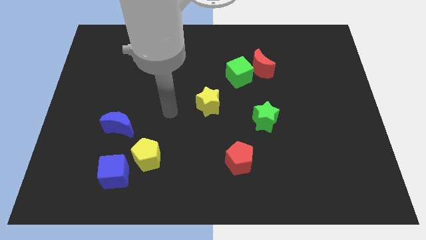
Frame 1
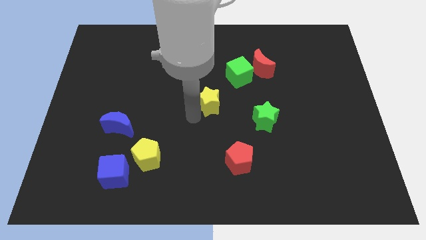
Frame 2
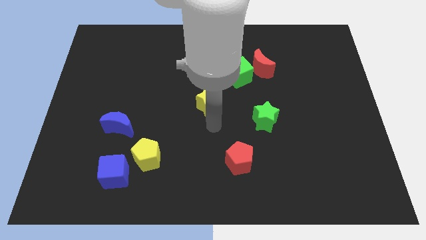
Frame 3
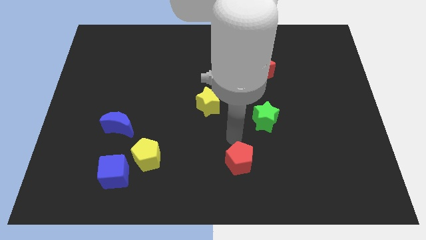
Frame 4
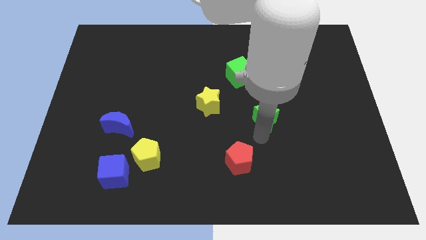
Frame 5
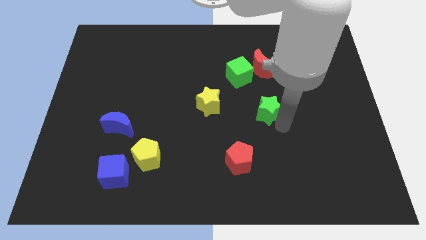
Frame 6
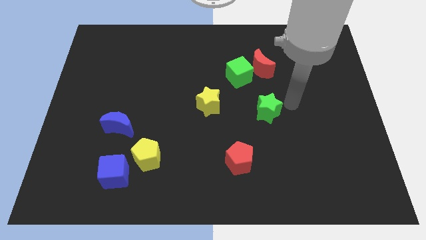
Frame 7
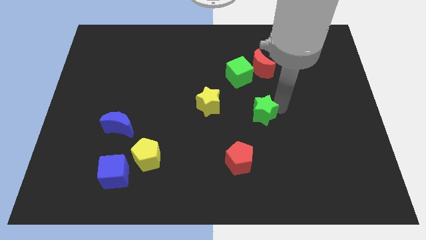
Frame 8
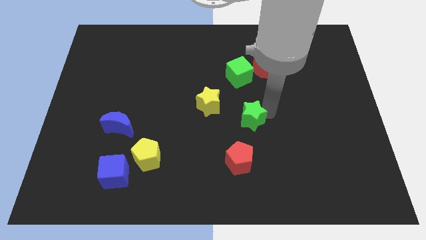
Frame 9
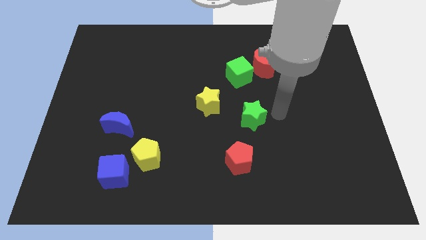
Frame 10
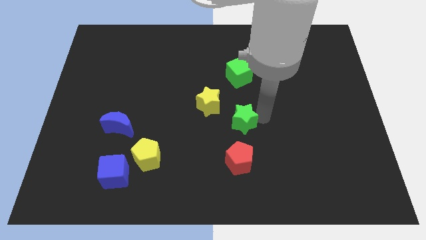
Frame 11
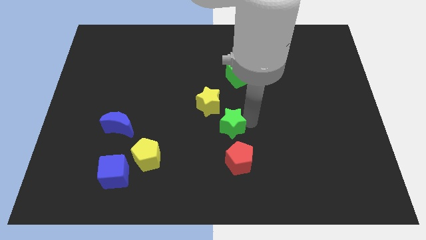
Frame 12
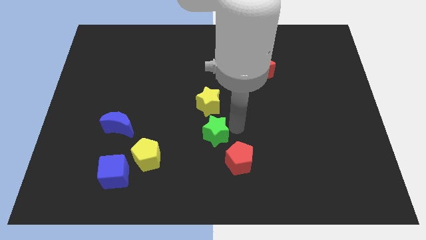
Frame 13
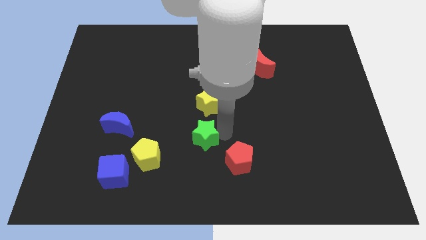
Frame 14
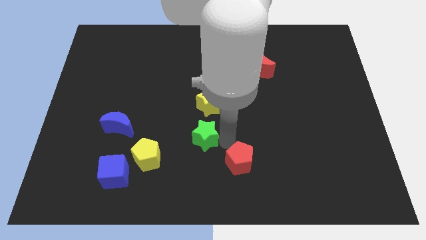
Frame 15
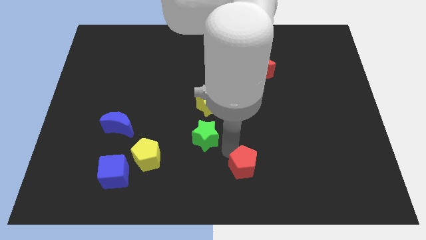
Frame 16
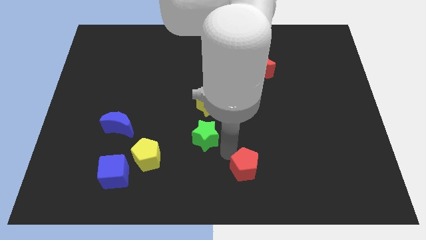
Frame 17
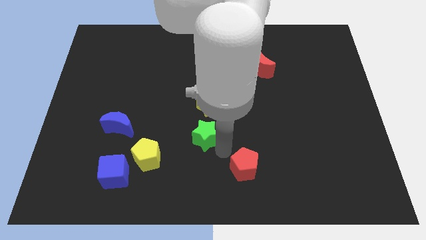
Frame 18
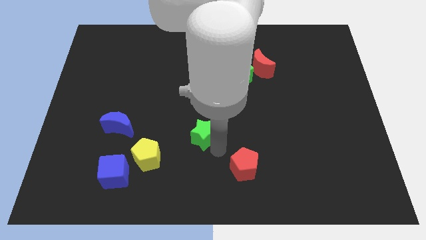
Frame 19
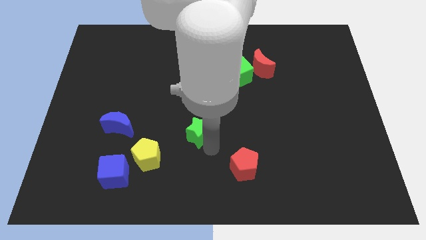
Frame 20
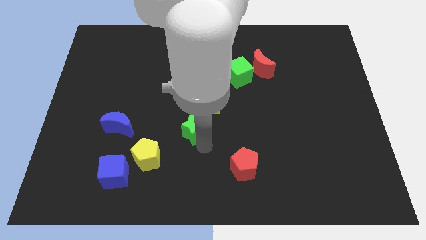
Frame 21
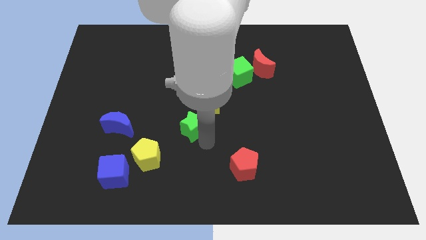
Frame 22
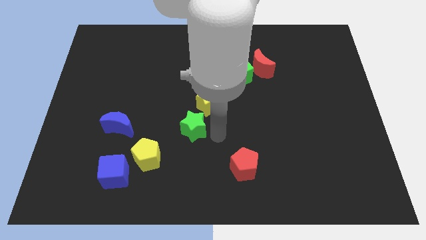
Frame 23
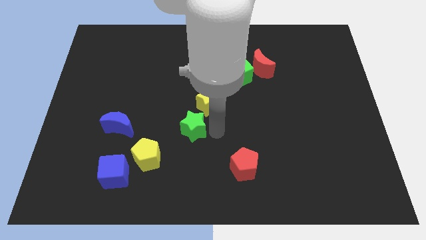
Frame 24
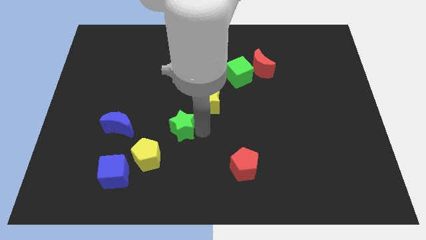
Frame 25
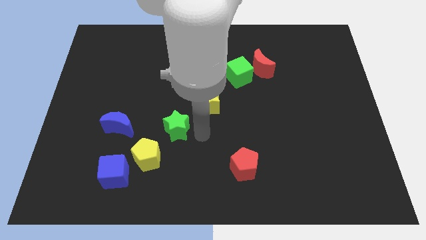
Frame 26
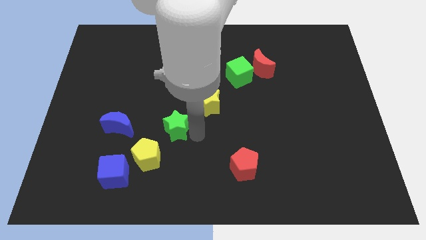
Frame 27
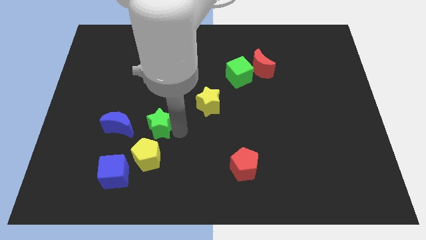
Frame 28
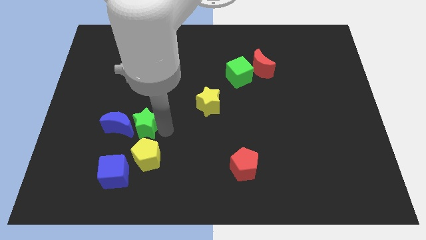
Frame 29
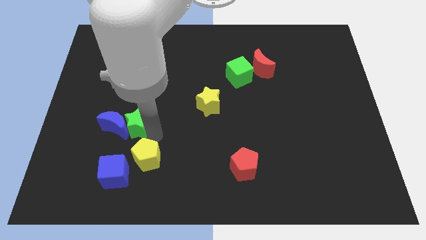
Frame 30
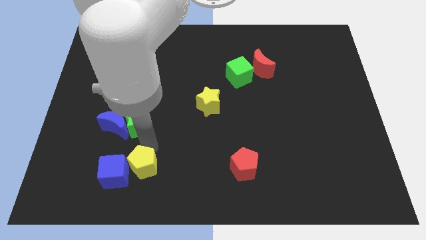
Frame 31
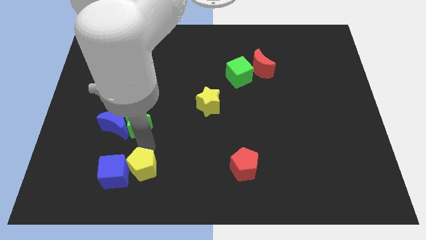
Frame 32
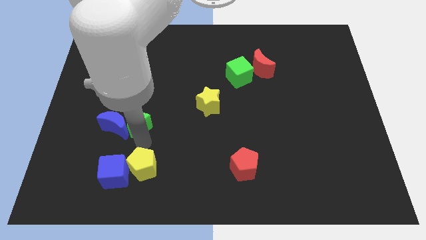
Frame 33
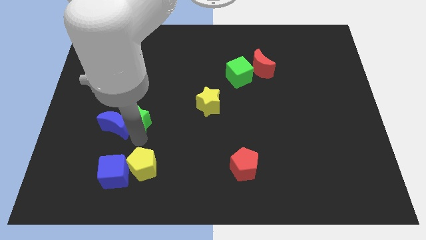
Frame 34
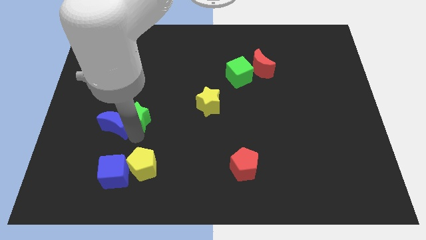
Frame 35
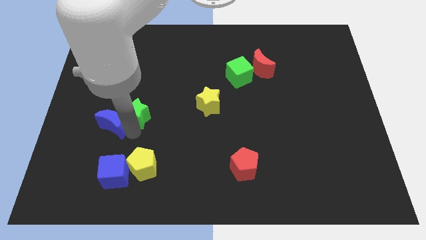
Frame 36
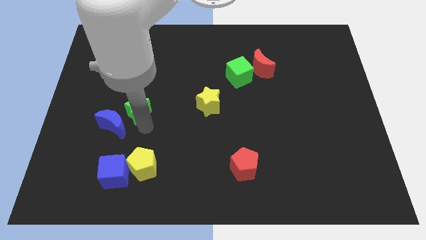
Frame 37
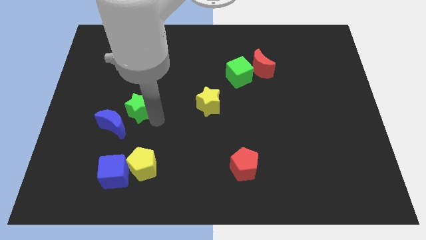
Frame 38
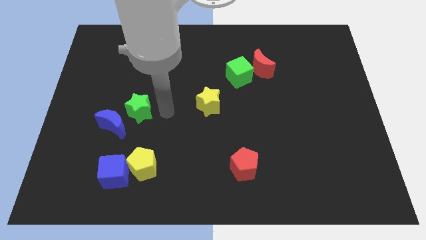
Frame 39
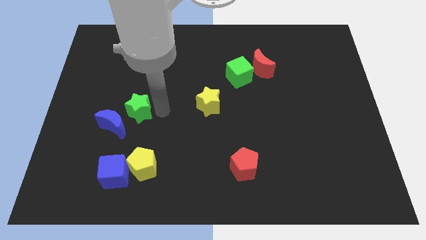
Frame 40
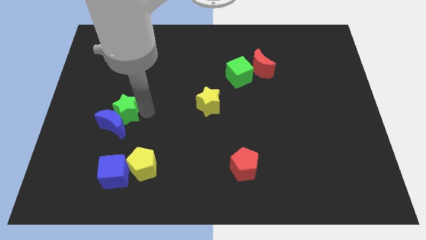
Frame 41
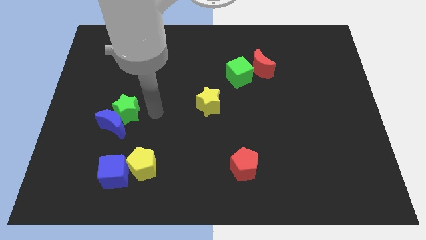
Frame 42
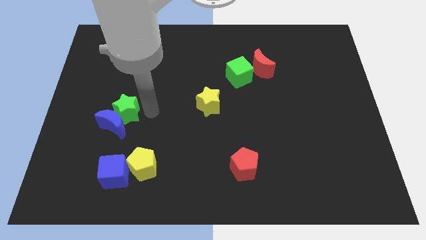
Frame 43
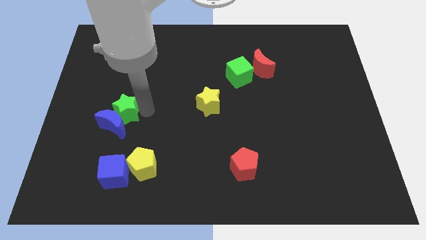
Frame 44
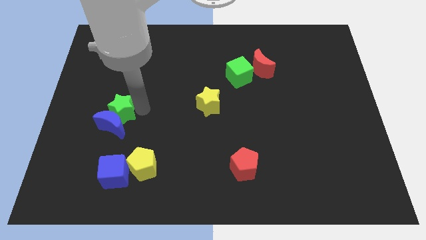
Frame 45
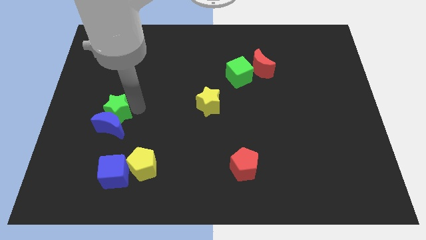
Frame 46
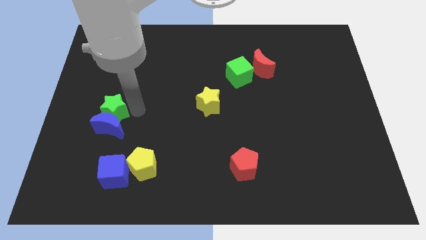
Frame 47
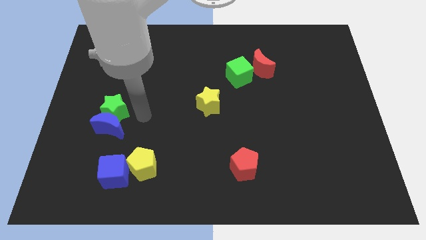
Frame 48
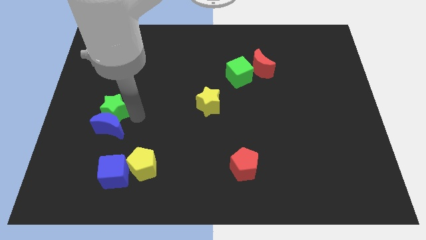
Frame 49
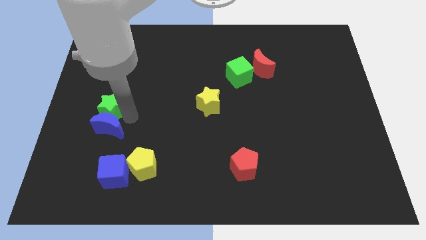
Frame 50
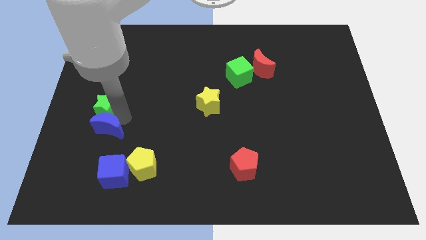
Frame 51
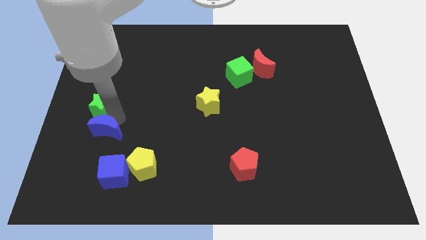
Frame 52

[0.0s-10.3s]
move the green star to the center left
